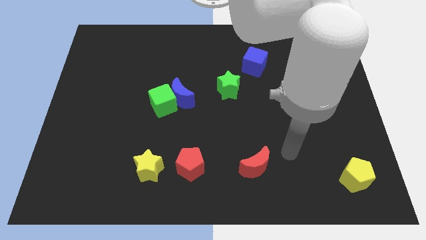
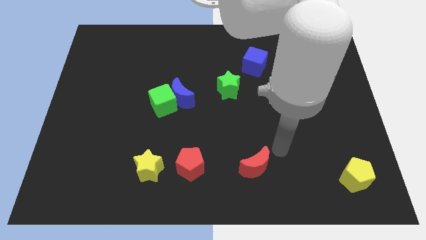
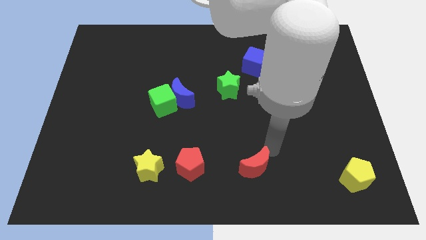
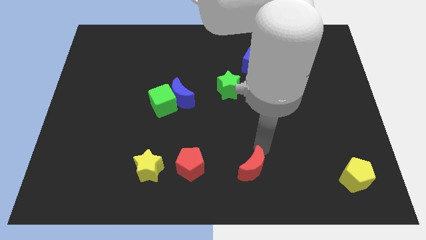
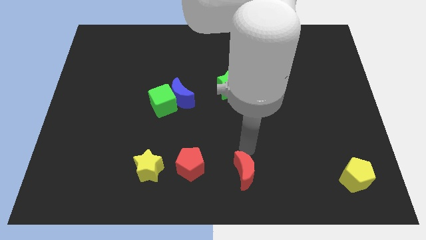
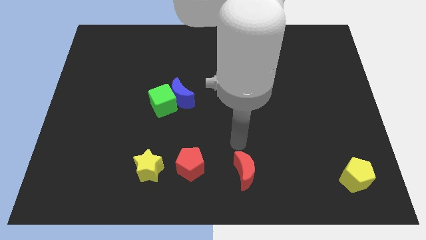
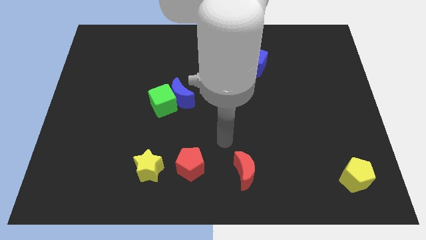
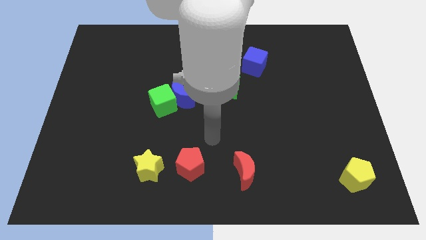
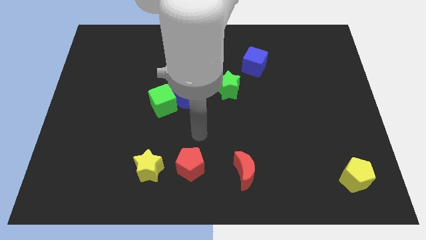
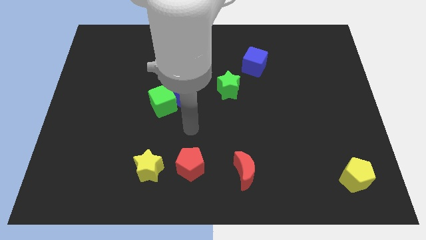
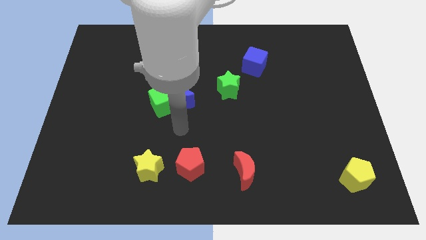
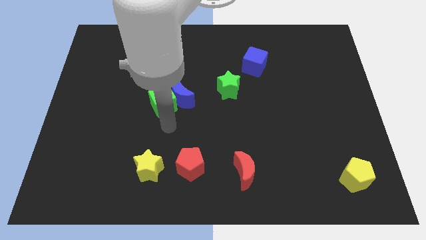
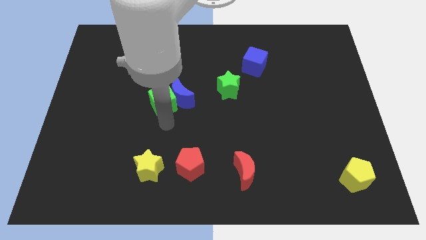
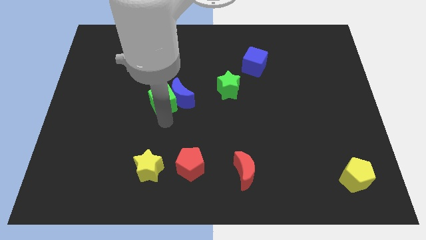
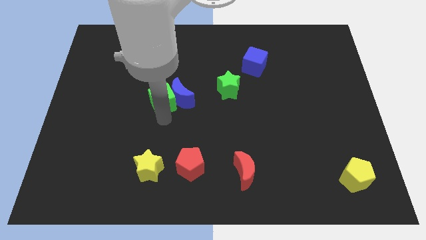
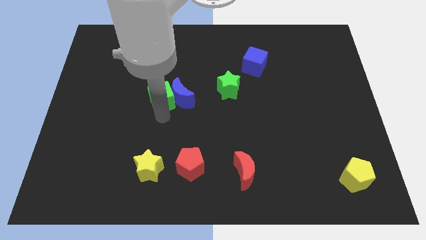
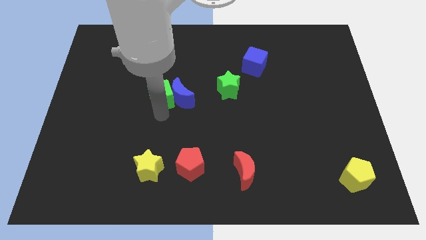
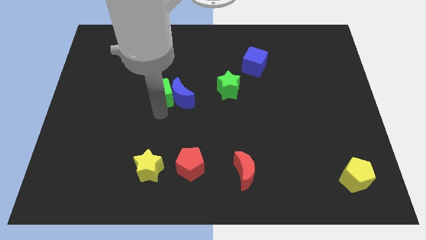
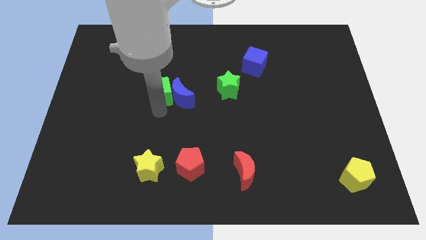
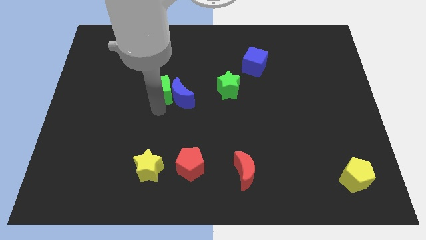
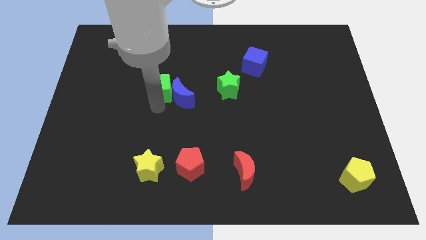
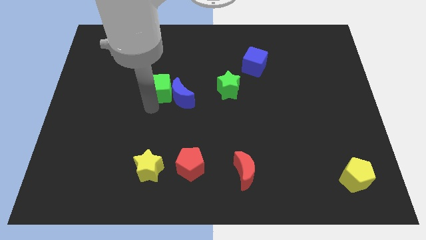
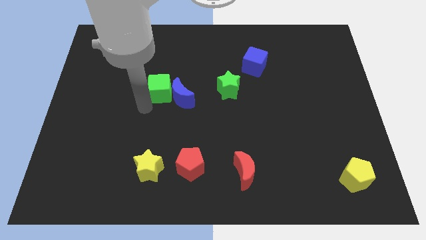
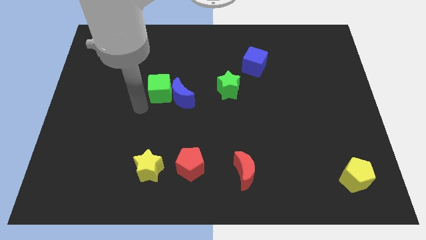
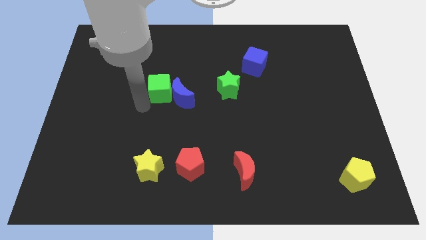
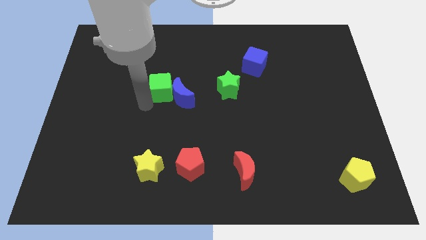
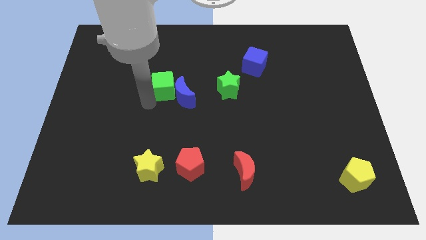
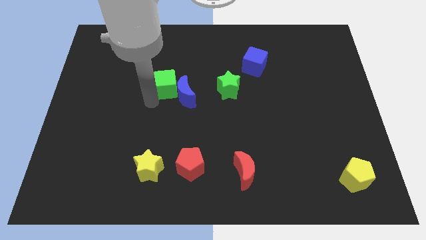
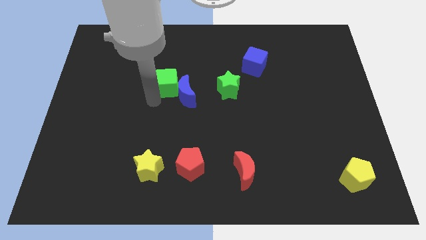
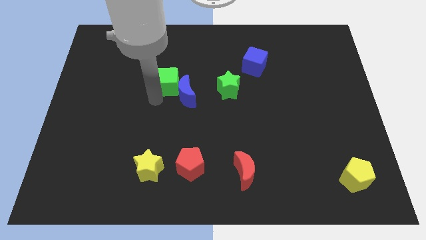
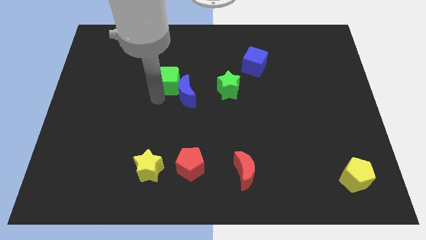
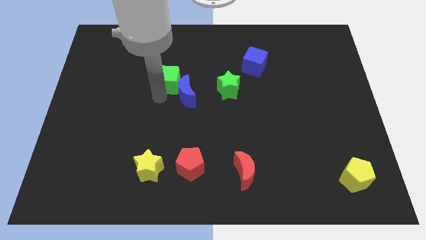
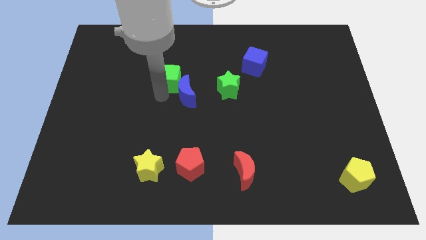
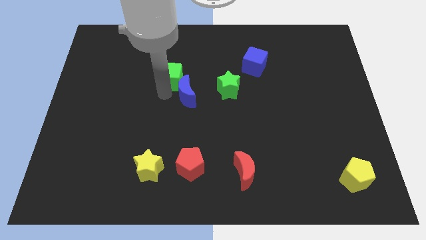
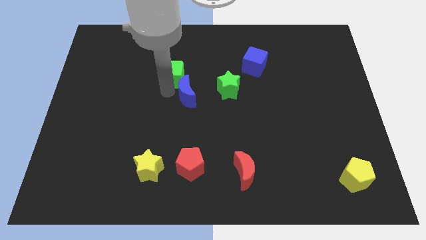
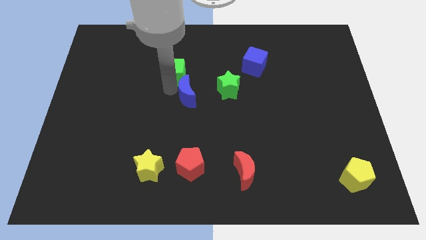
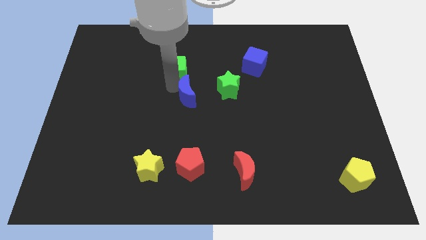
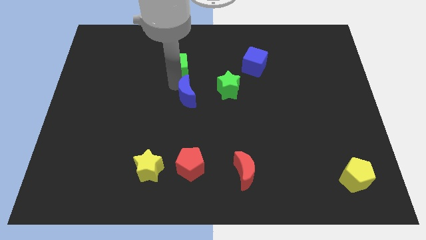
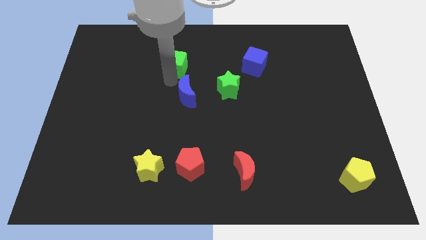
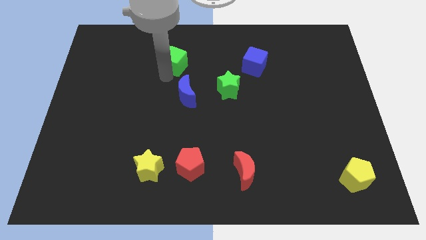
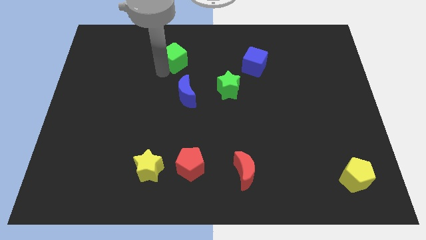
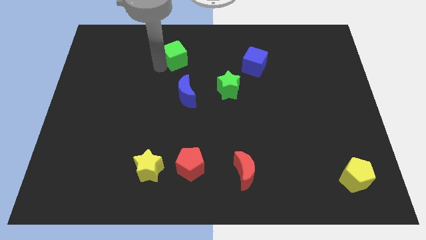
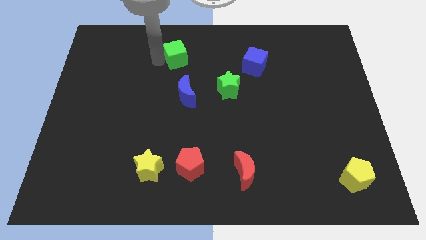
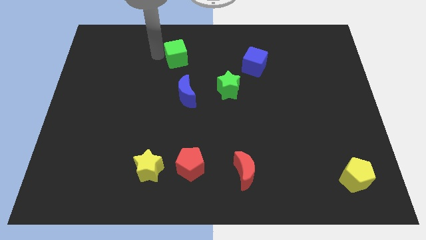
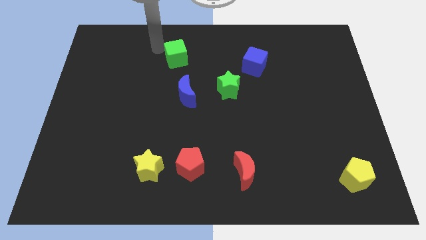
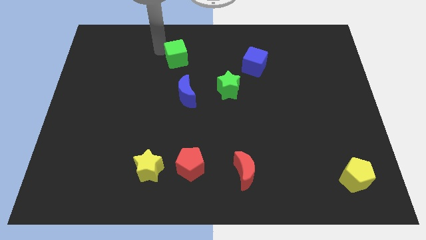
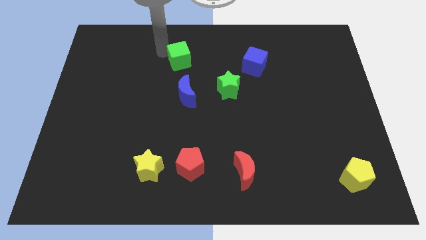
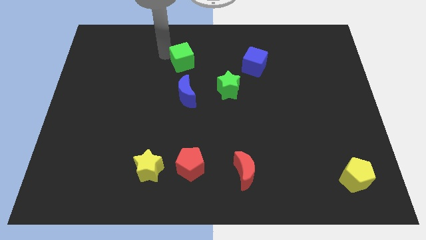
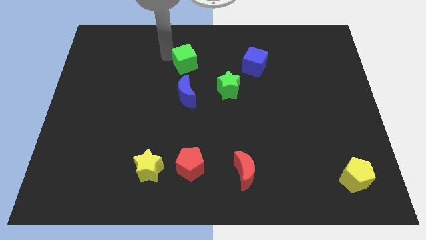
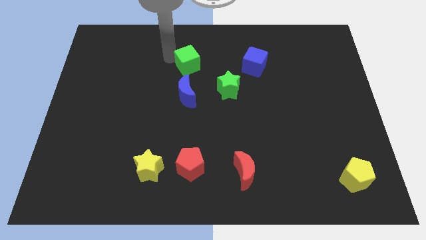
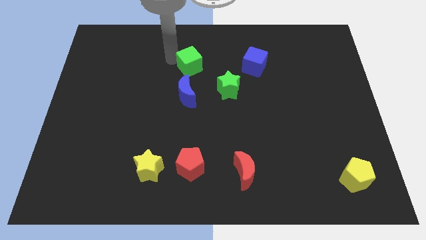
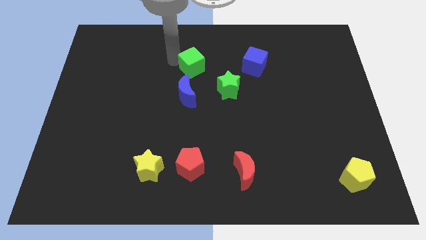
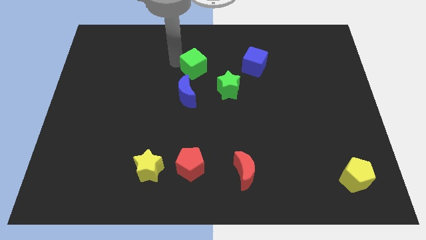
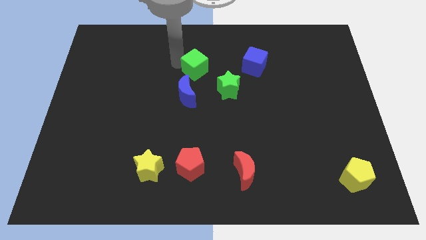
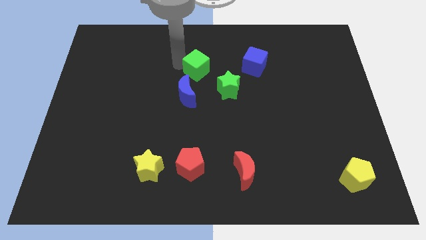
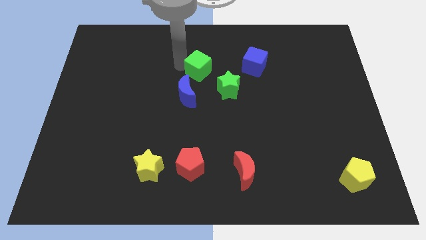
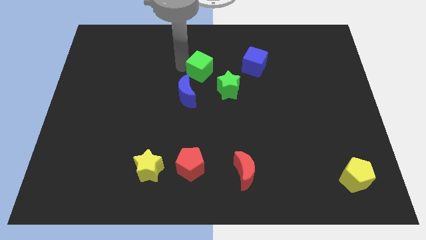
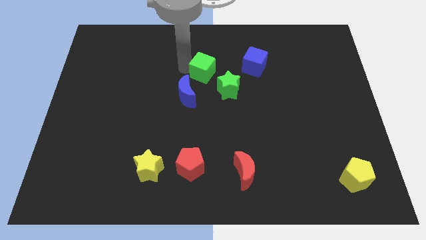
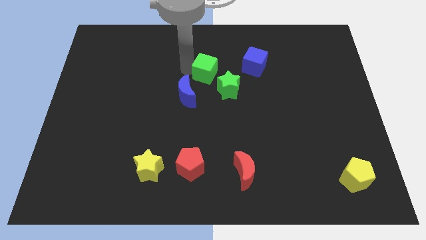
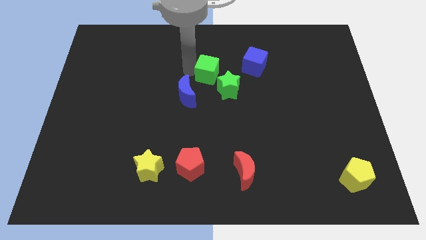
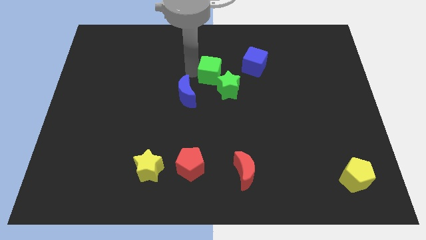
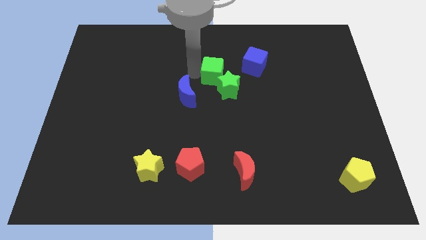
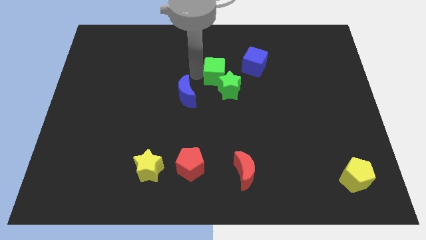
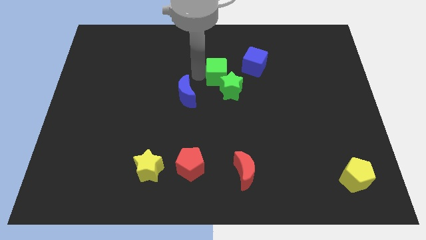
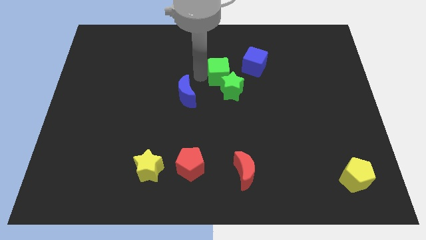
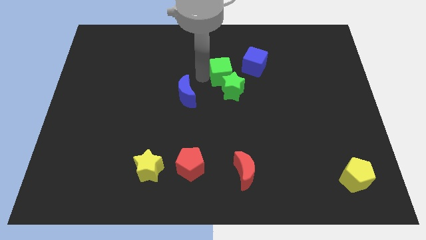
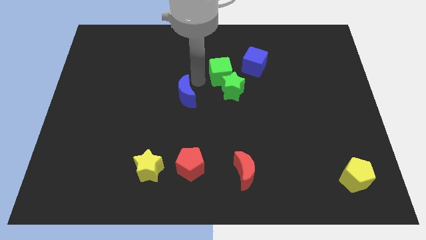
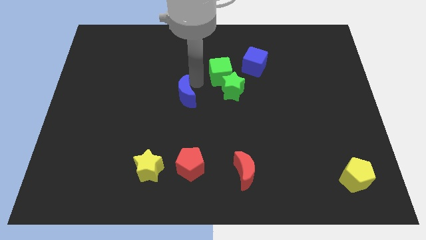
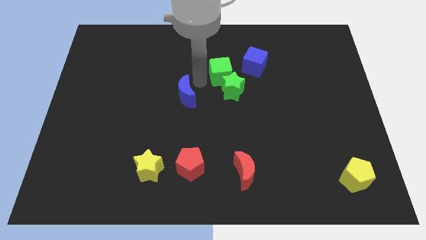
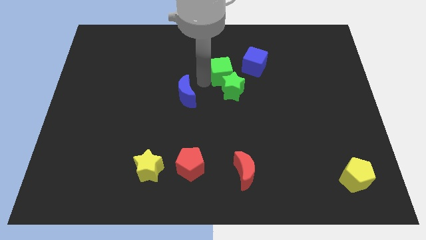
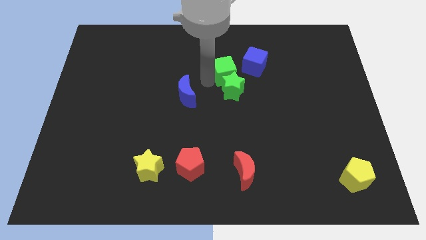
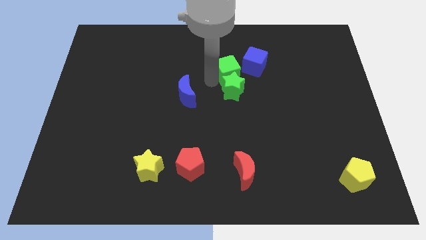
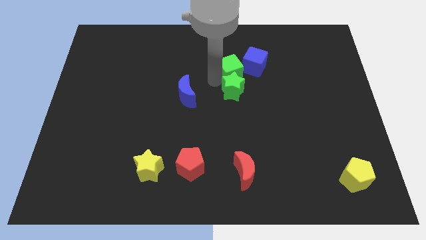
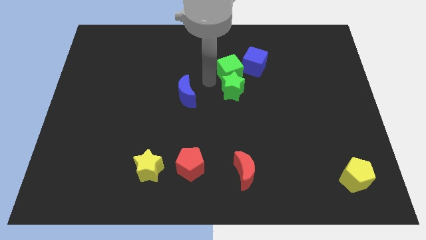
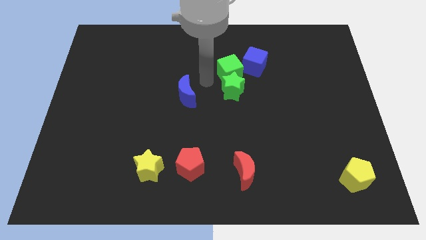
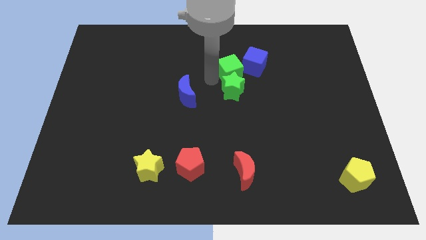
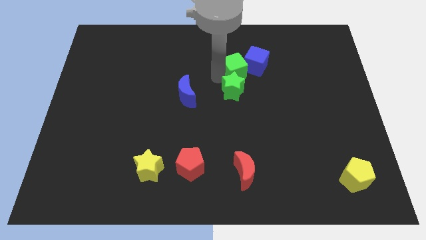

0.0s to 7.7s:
push the green cube next to the blue cube
